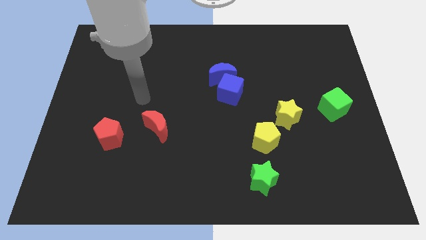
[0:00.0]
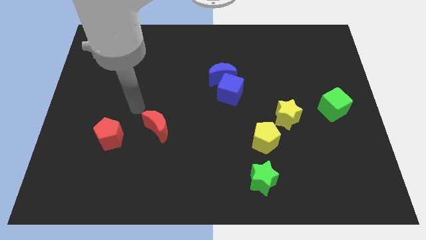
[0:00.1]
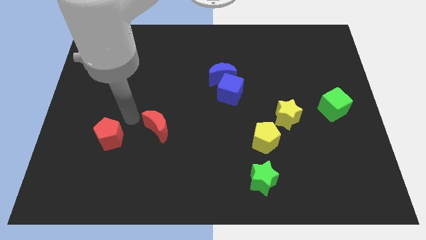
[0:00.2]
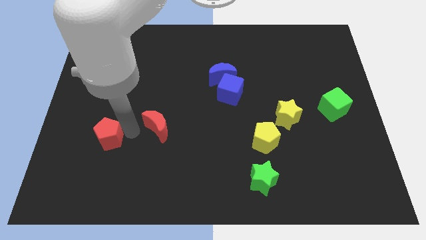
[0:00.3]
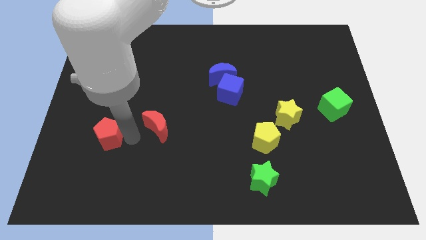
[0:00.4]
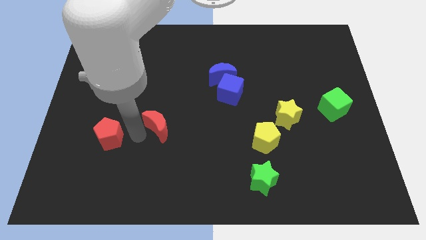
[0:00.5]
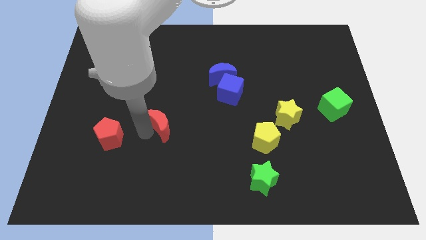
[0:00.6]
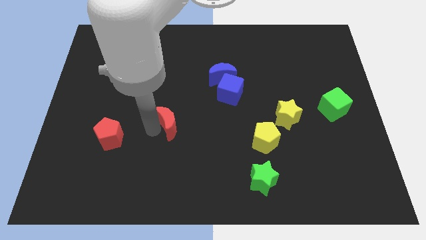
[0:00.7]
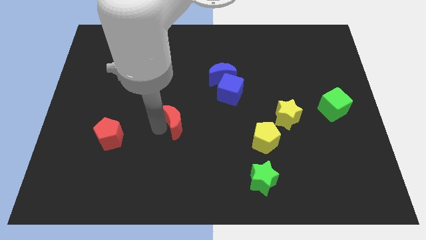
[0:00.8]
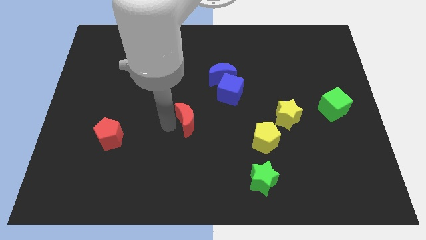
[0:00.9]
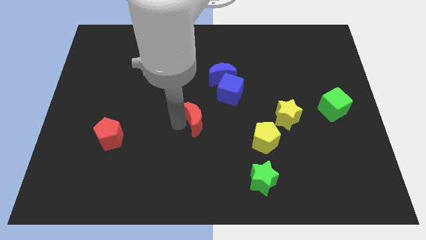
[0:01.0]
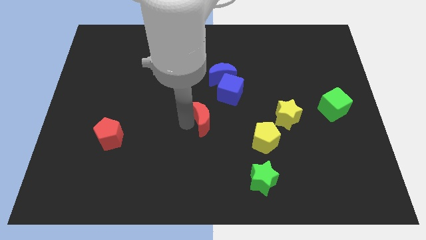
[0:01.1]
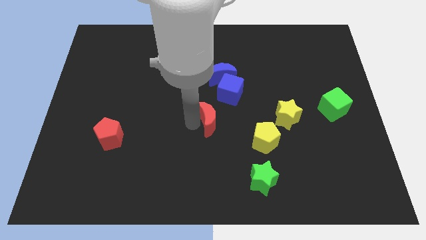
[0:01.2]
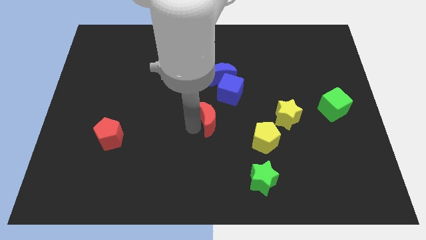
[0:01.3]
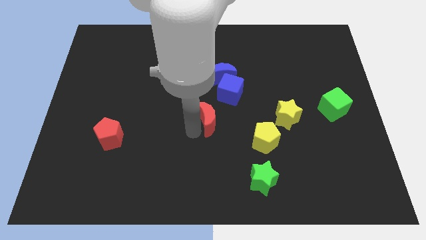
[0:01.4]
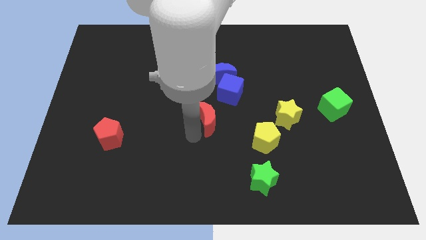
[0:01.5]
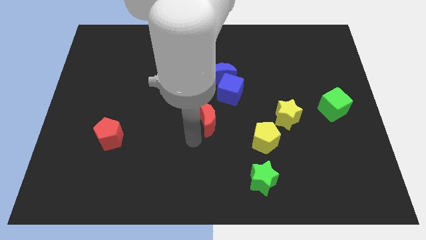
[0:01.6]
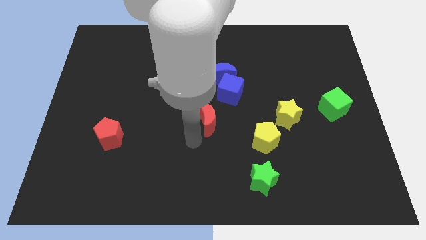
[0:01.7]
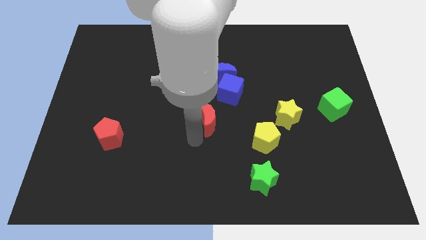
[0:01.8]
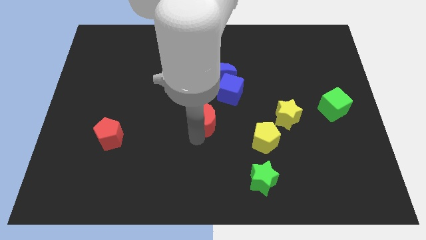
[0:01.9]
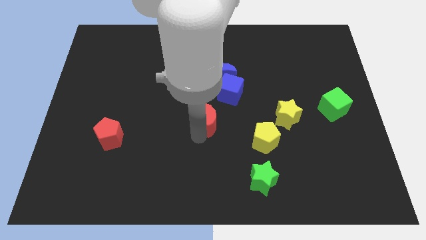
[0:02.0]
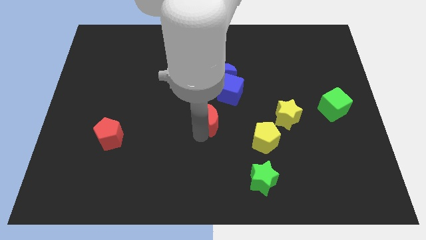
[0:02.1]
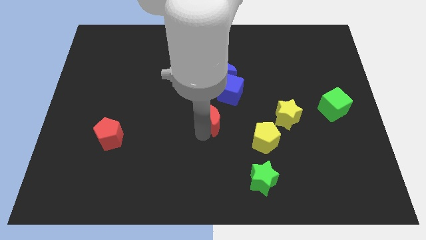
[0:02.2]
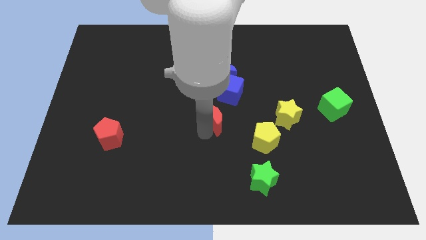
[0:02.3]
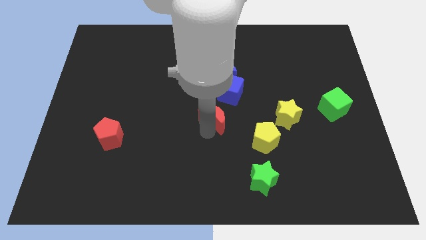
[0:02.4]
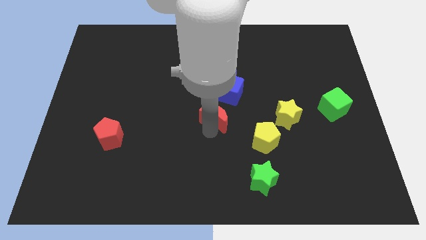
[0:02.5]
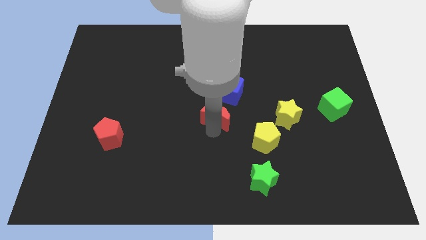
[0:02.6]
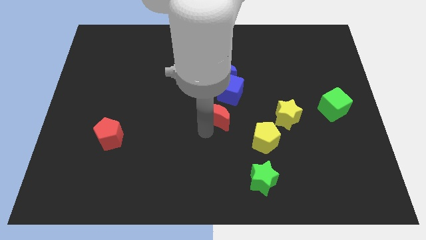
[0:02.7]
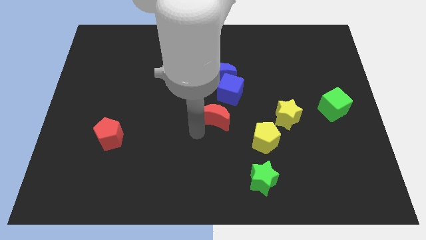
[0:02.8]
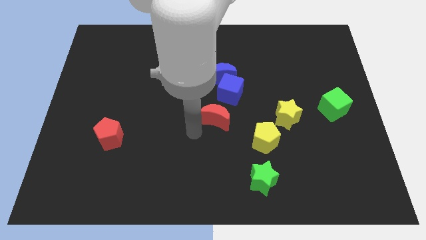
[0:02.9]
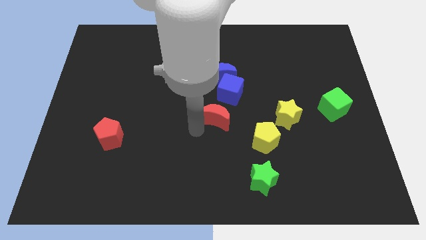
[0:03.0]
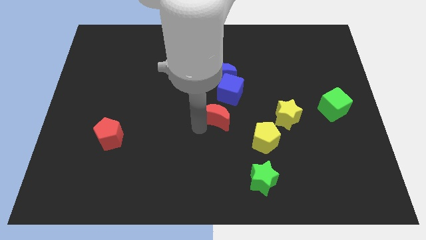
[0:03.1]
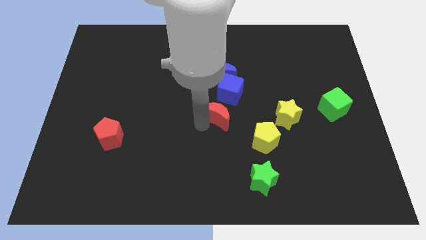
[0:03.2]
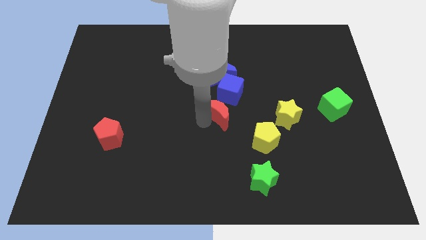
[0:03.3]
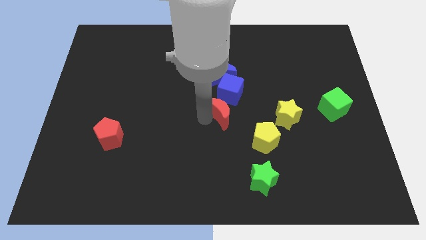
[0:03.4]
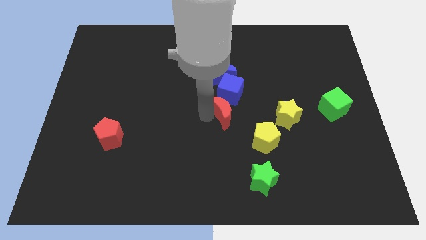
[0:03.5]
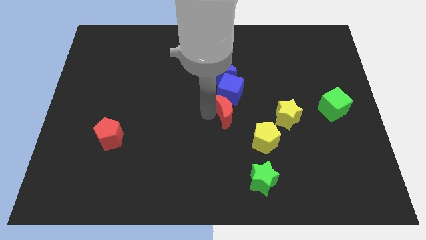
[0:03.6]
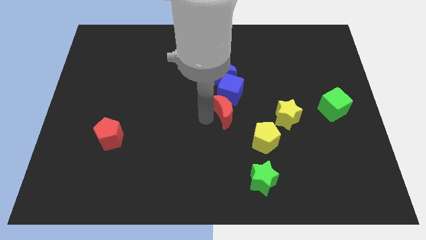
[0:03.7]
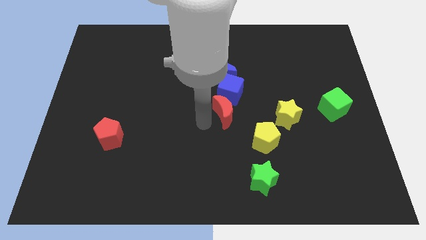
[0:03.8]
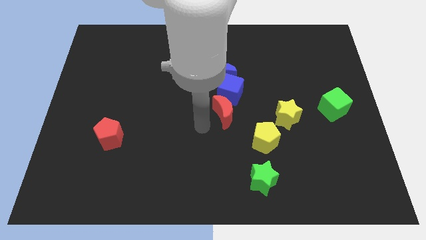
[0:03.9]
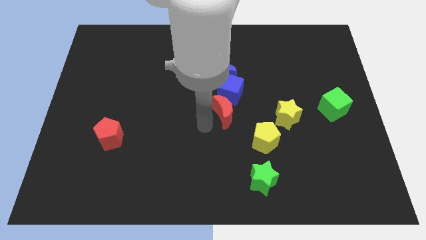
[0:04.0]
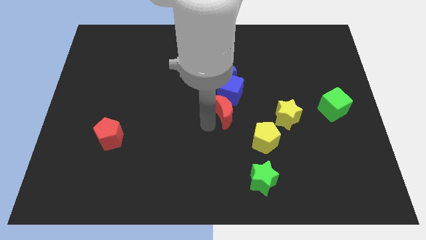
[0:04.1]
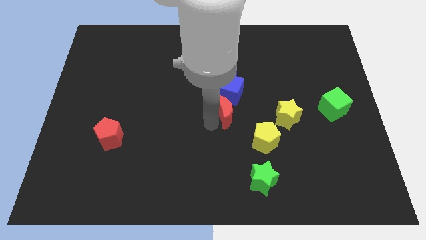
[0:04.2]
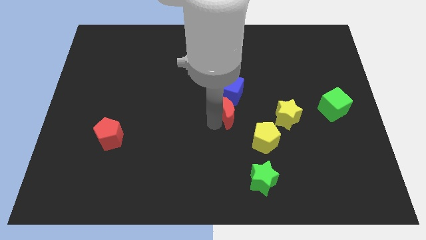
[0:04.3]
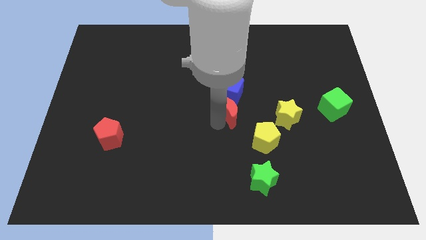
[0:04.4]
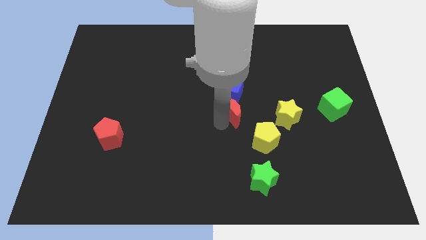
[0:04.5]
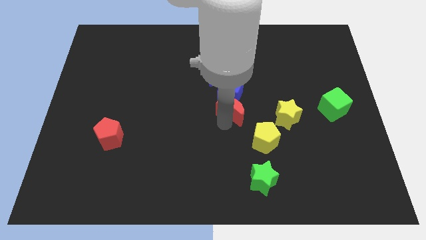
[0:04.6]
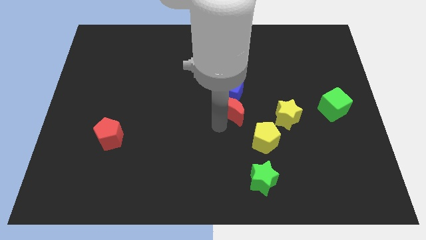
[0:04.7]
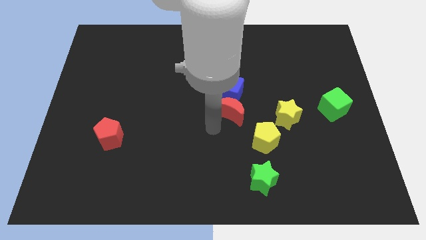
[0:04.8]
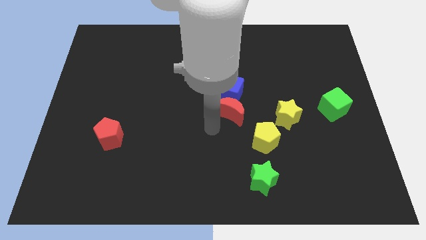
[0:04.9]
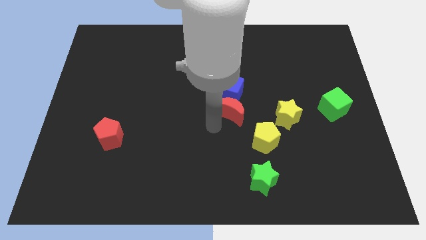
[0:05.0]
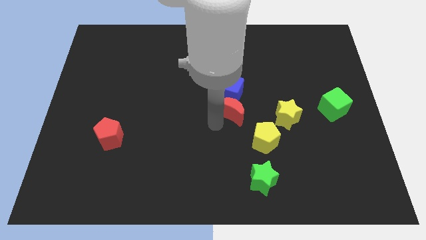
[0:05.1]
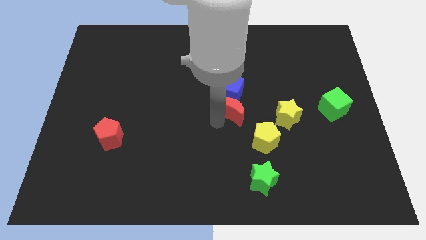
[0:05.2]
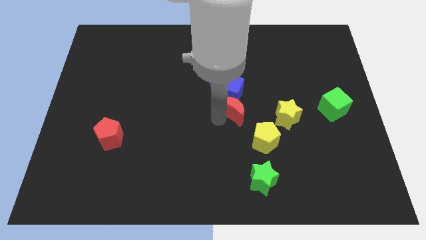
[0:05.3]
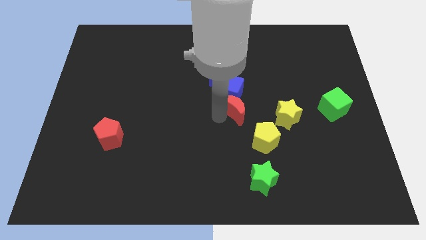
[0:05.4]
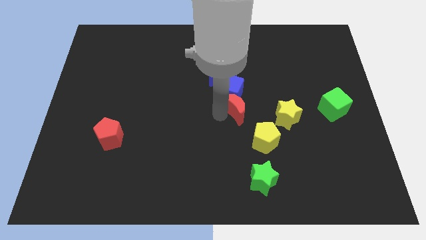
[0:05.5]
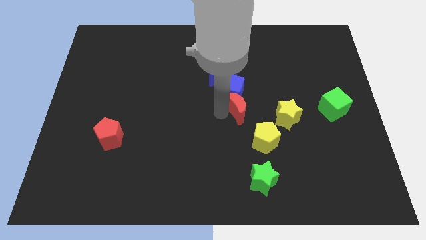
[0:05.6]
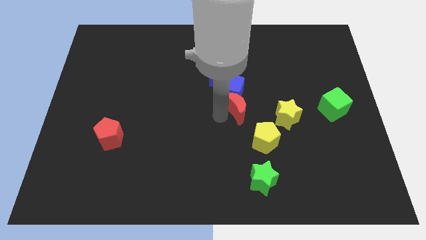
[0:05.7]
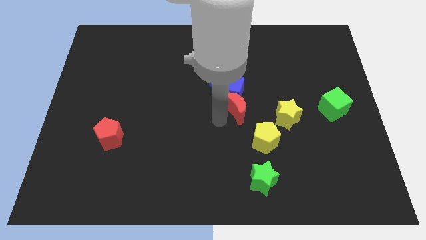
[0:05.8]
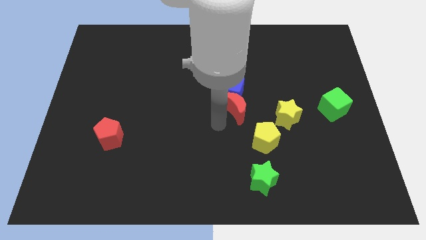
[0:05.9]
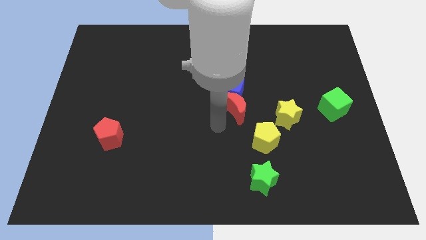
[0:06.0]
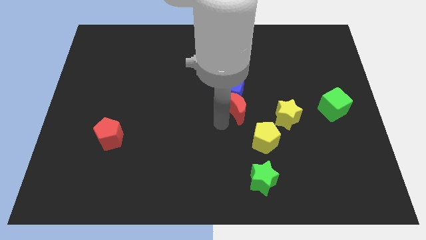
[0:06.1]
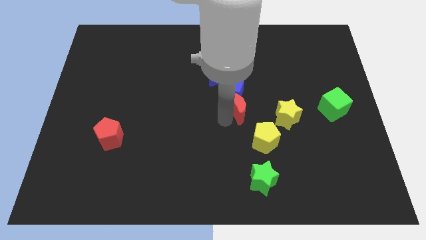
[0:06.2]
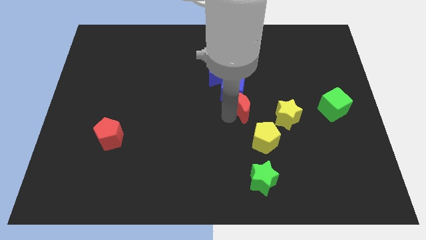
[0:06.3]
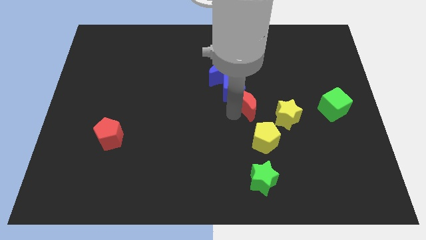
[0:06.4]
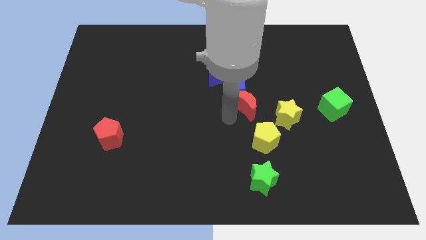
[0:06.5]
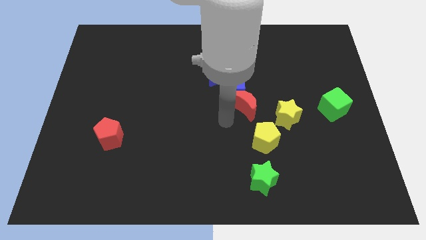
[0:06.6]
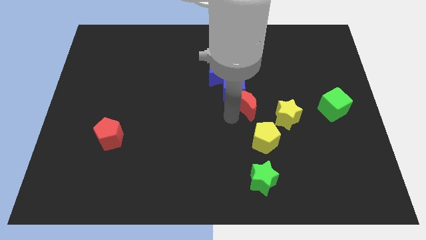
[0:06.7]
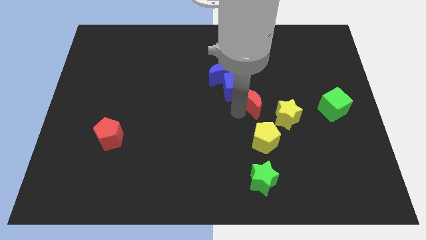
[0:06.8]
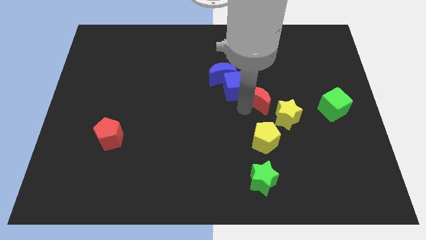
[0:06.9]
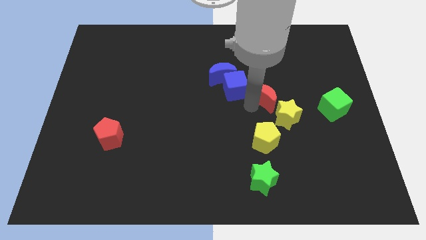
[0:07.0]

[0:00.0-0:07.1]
push the red moon to the top side of the yellow star

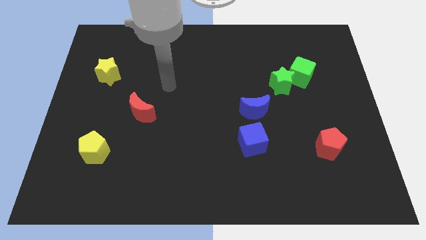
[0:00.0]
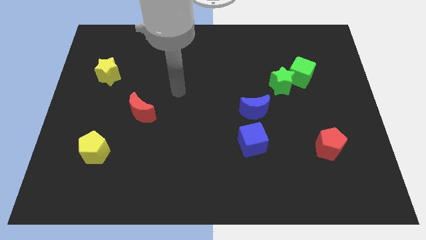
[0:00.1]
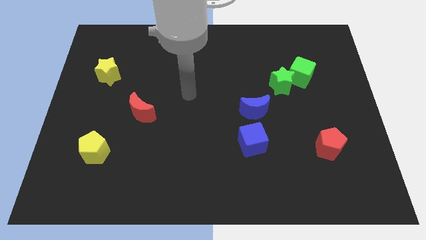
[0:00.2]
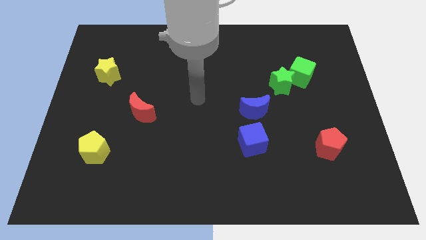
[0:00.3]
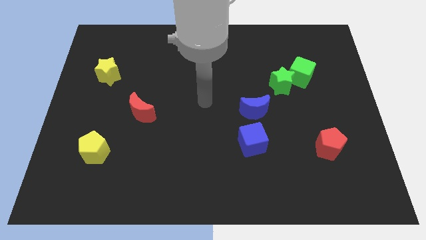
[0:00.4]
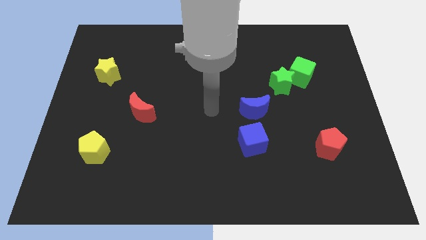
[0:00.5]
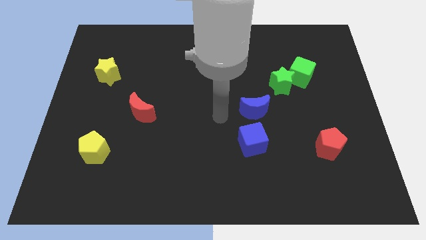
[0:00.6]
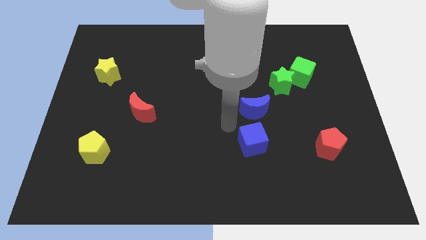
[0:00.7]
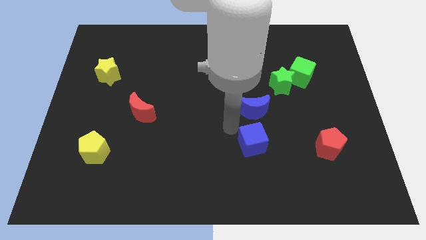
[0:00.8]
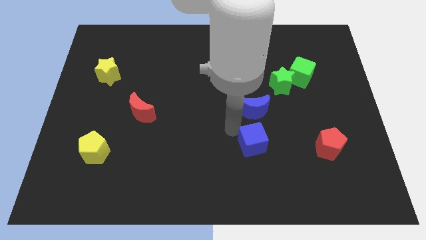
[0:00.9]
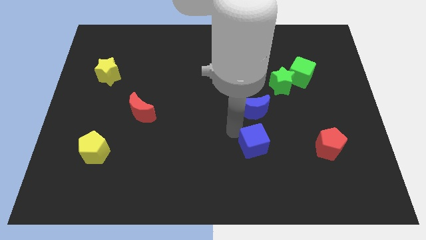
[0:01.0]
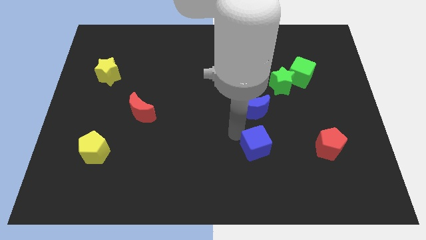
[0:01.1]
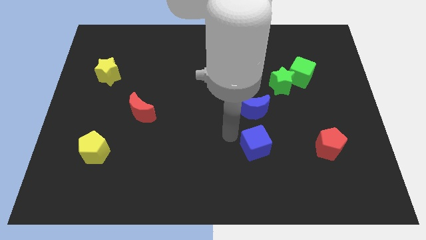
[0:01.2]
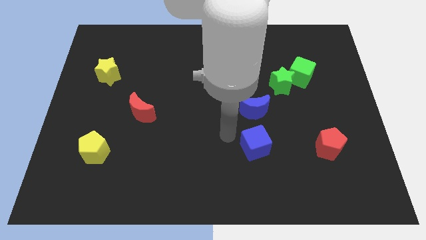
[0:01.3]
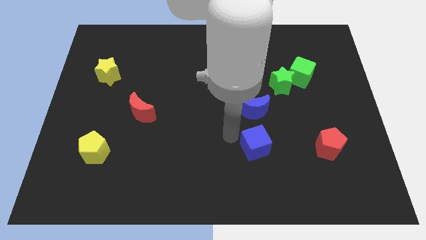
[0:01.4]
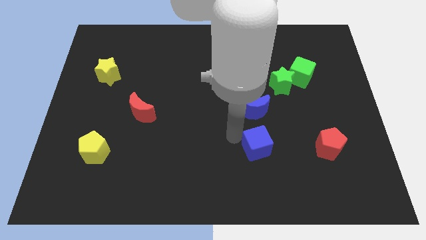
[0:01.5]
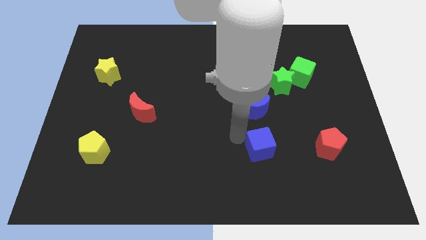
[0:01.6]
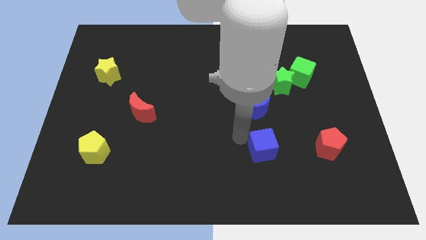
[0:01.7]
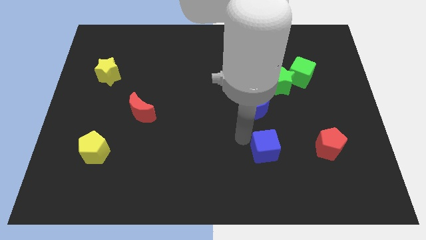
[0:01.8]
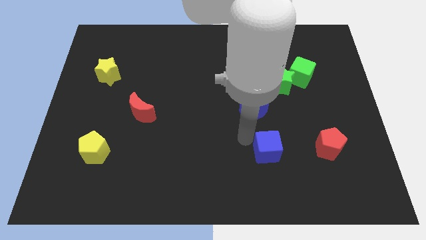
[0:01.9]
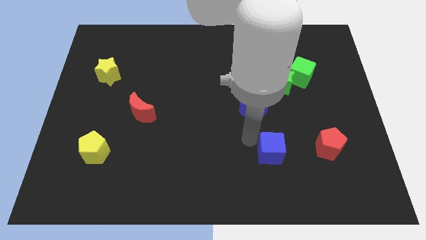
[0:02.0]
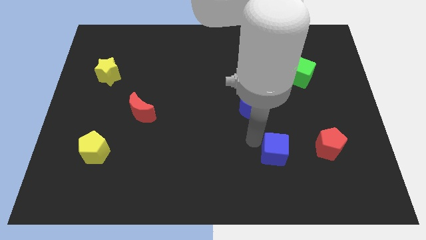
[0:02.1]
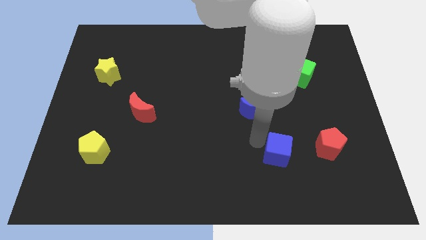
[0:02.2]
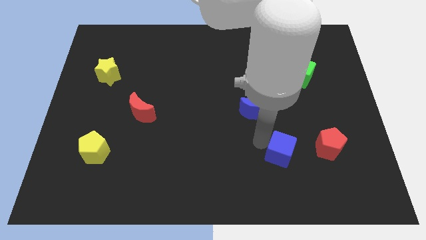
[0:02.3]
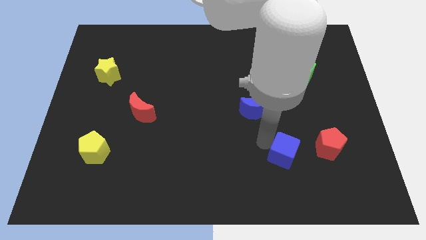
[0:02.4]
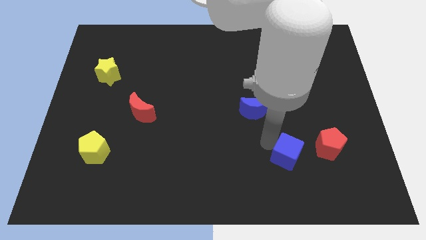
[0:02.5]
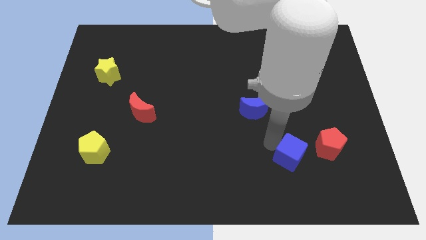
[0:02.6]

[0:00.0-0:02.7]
put the blue cube diagonally down and to the left of the red pentagon
